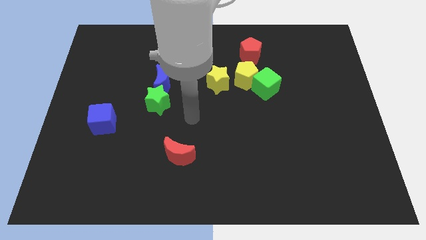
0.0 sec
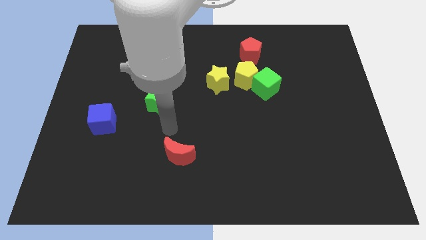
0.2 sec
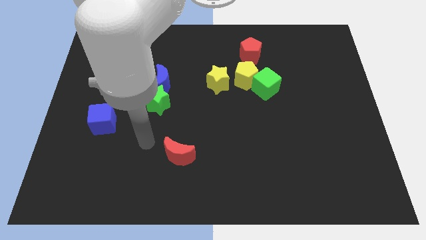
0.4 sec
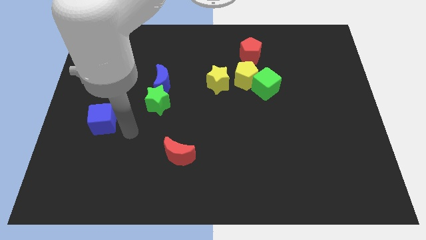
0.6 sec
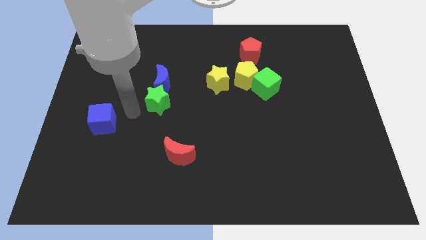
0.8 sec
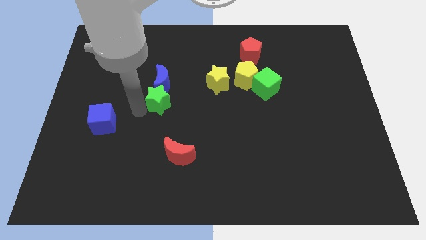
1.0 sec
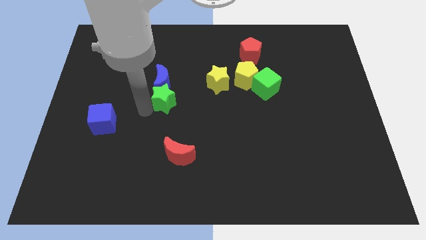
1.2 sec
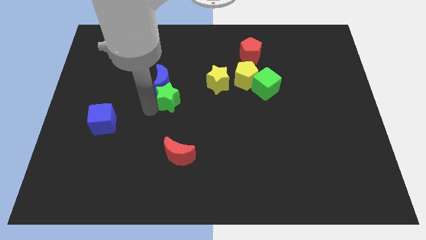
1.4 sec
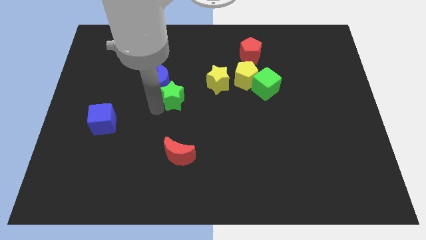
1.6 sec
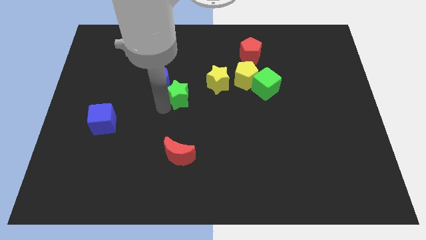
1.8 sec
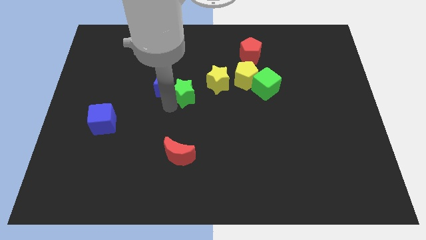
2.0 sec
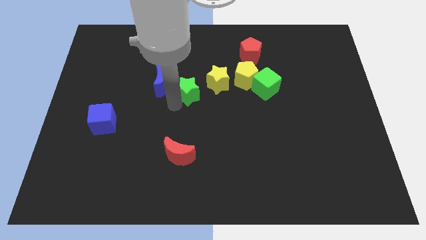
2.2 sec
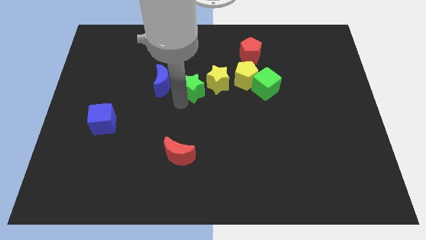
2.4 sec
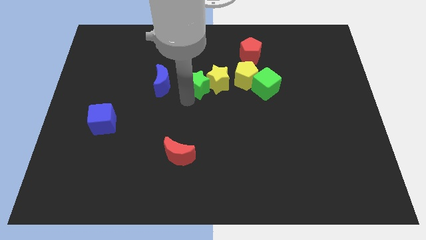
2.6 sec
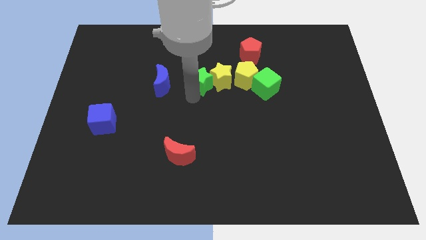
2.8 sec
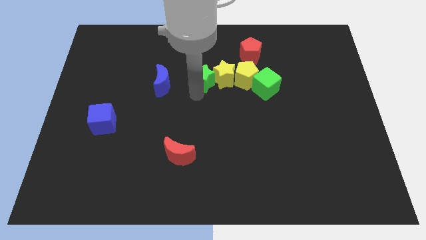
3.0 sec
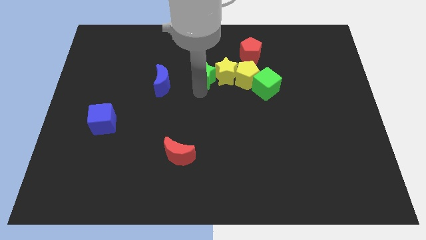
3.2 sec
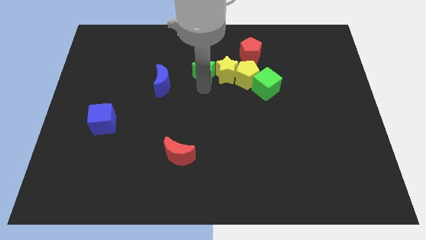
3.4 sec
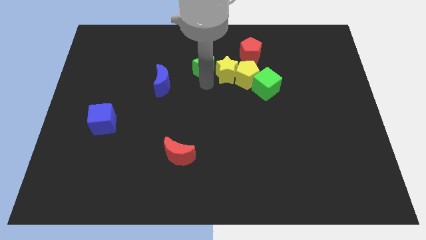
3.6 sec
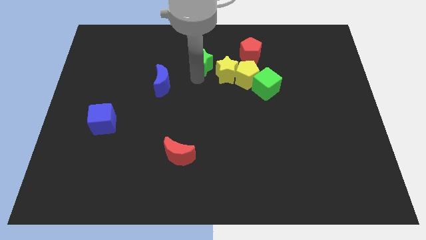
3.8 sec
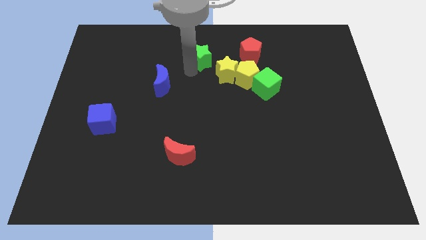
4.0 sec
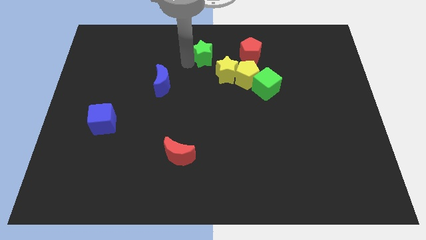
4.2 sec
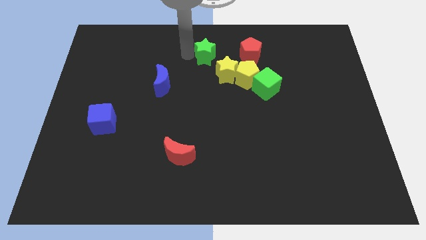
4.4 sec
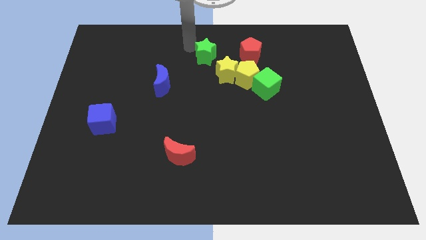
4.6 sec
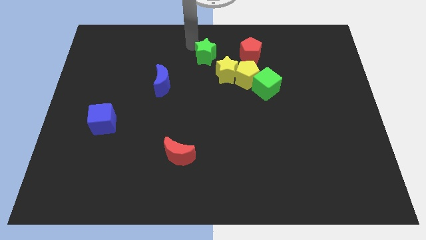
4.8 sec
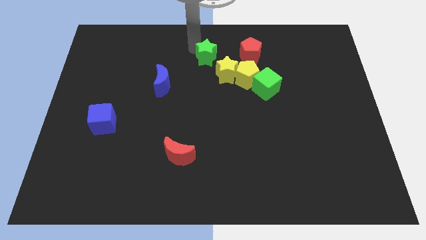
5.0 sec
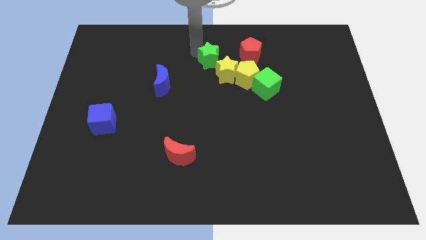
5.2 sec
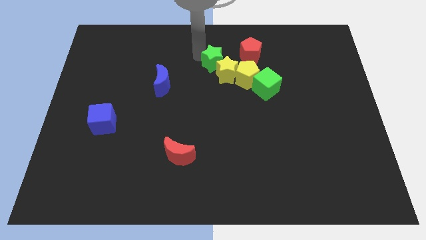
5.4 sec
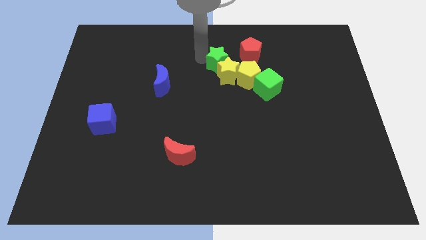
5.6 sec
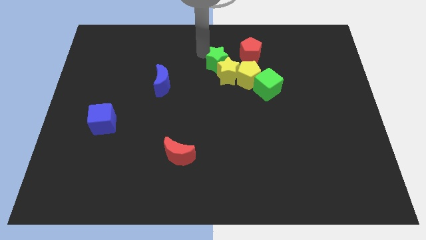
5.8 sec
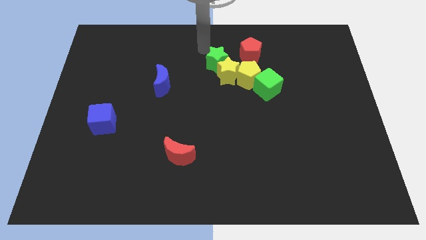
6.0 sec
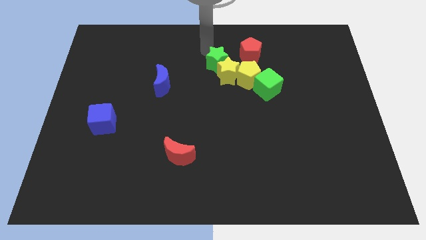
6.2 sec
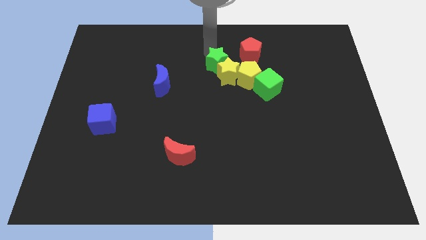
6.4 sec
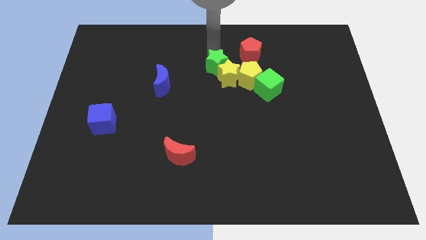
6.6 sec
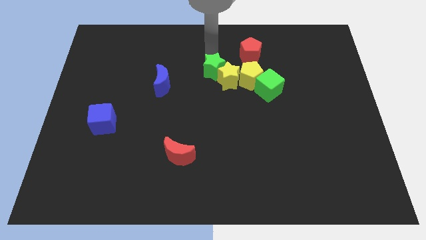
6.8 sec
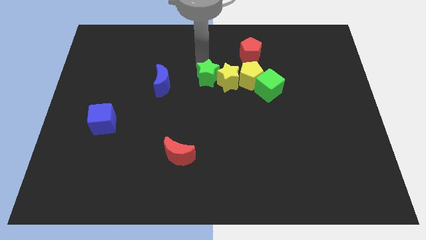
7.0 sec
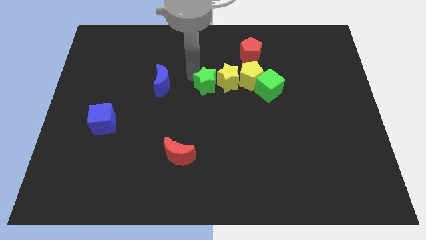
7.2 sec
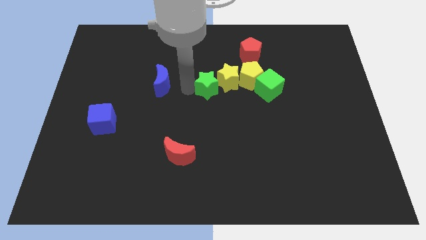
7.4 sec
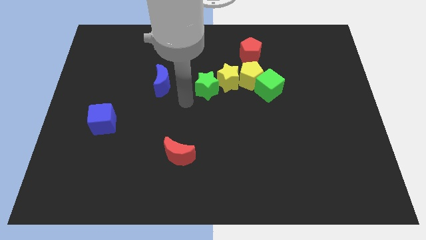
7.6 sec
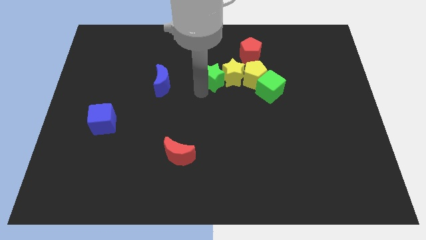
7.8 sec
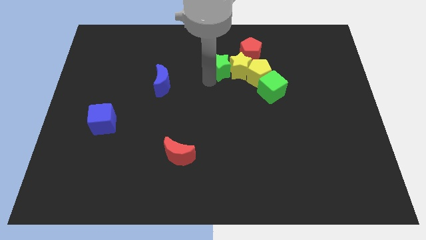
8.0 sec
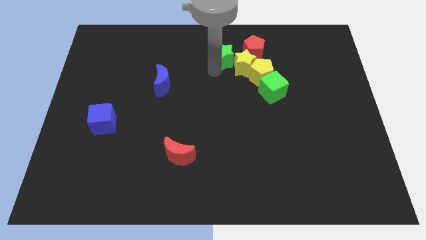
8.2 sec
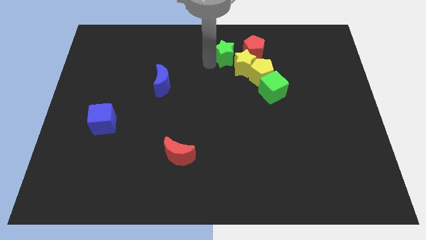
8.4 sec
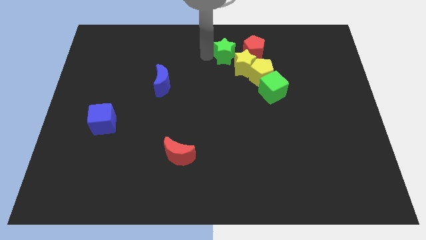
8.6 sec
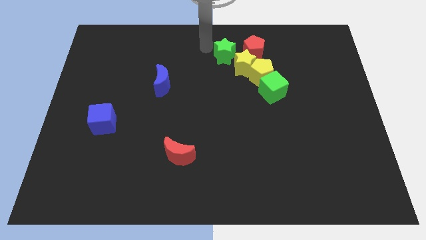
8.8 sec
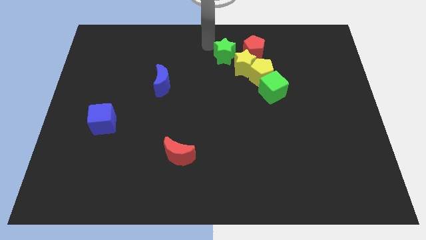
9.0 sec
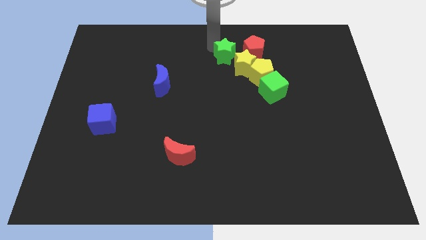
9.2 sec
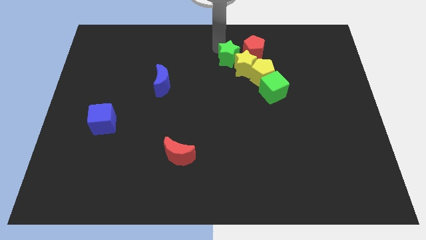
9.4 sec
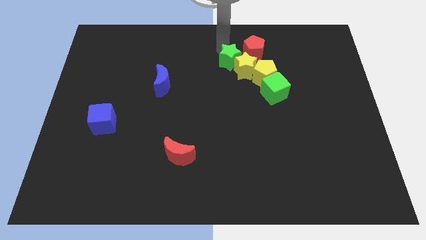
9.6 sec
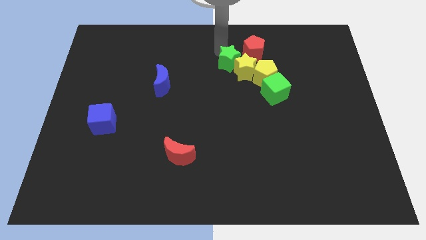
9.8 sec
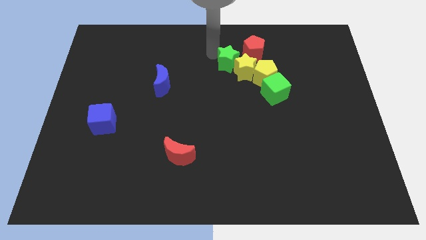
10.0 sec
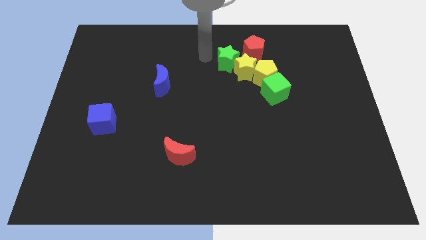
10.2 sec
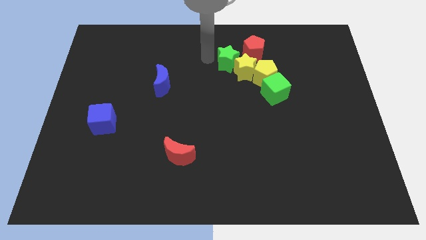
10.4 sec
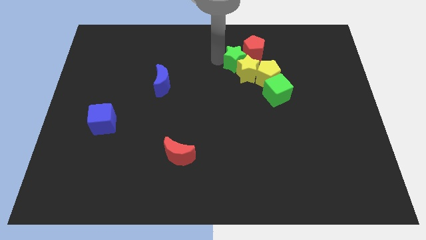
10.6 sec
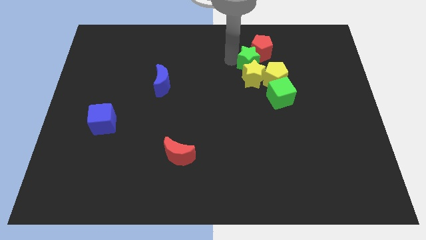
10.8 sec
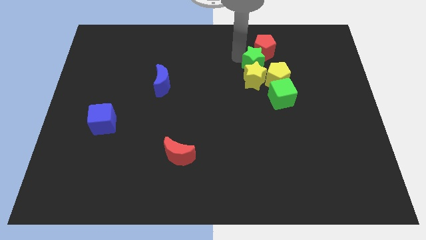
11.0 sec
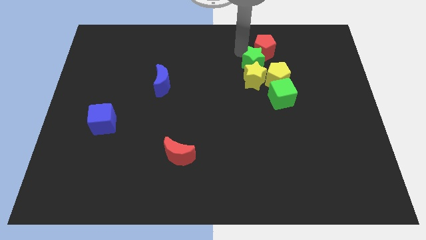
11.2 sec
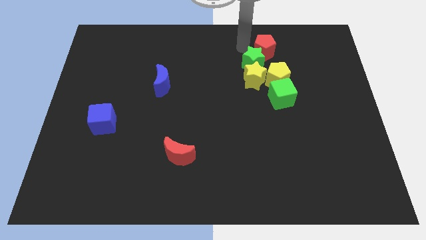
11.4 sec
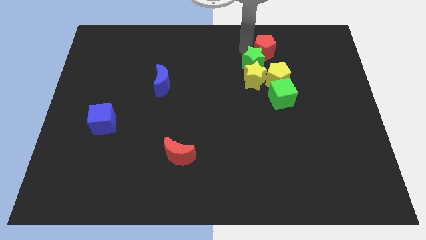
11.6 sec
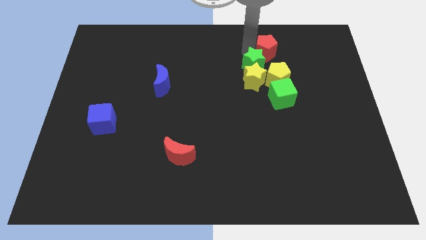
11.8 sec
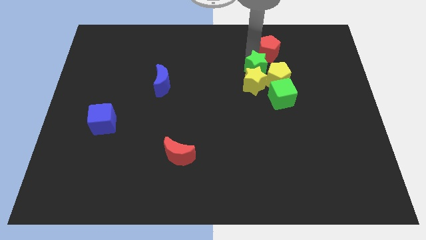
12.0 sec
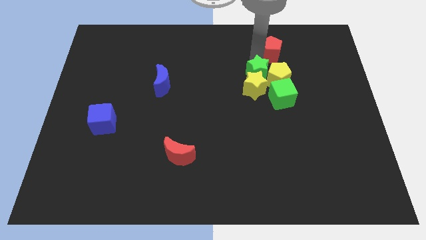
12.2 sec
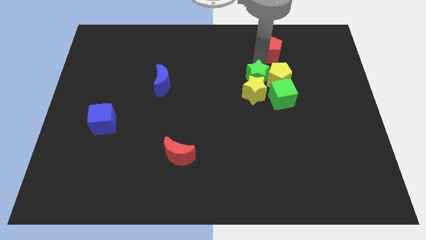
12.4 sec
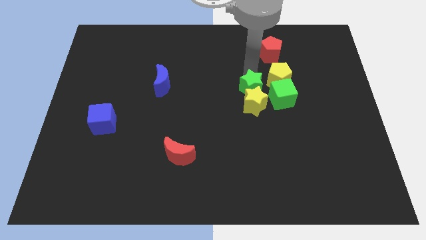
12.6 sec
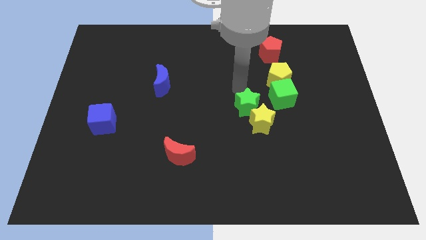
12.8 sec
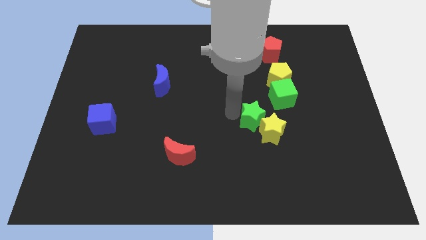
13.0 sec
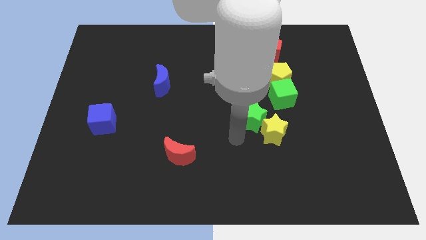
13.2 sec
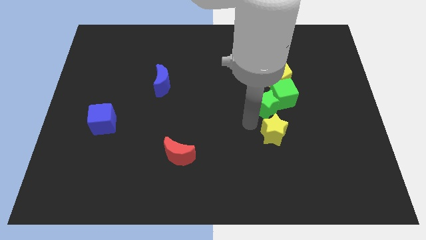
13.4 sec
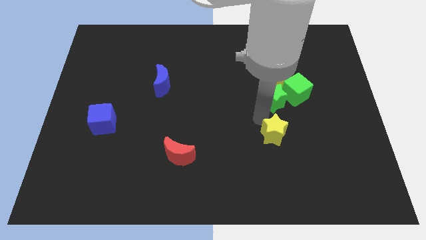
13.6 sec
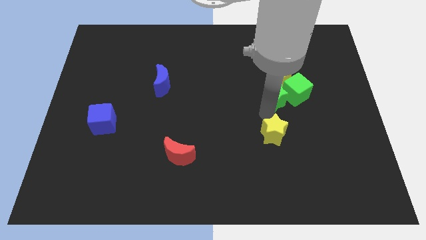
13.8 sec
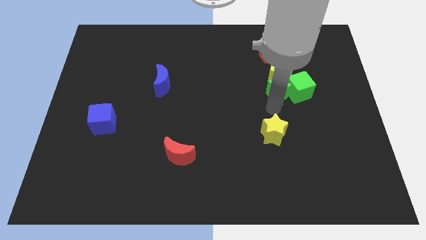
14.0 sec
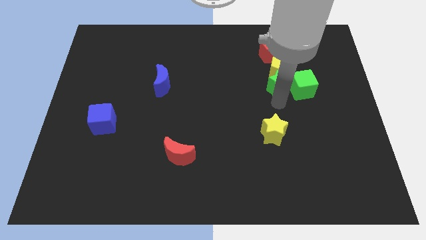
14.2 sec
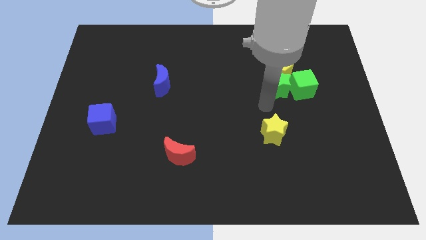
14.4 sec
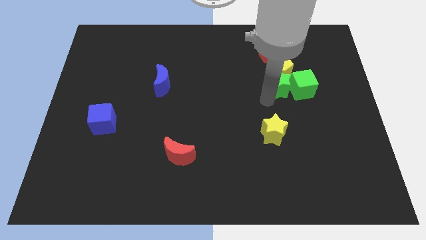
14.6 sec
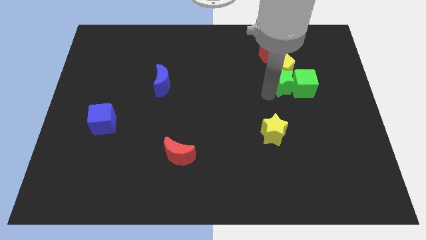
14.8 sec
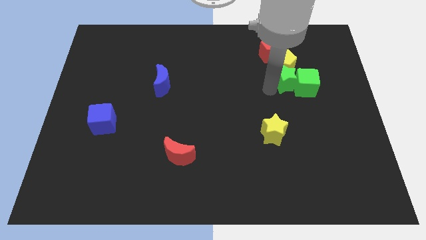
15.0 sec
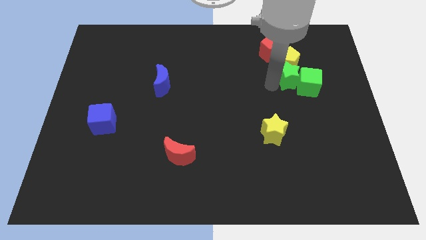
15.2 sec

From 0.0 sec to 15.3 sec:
move the green star diagonally down and to the right of the red pentagon
